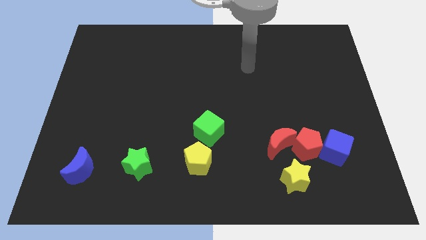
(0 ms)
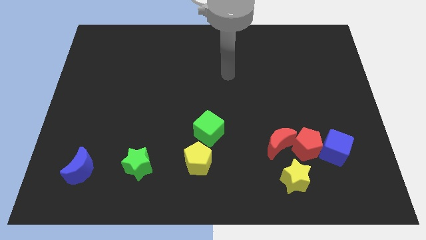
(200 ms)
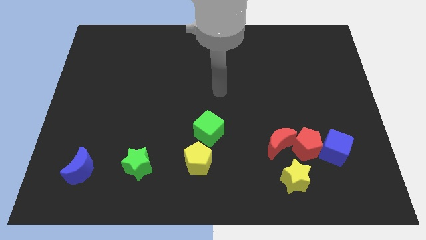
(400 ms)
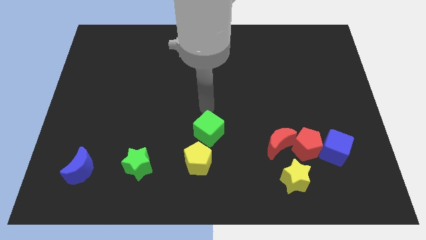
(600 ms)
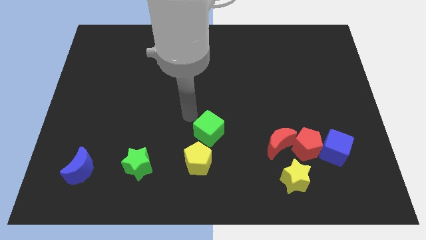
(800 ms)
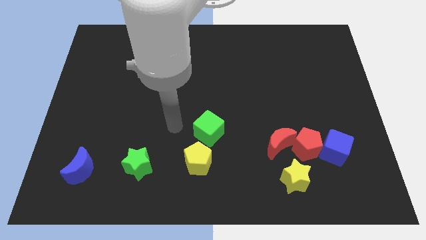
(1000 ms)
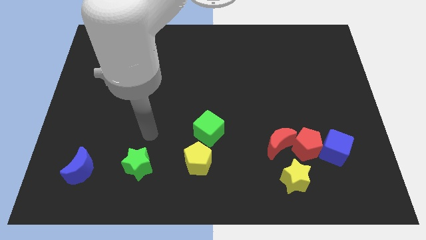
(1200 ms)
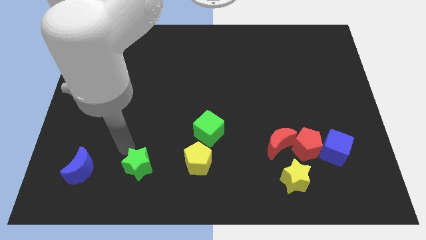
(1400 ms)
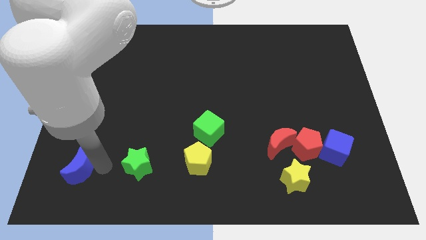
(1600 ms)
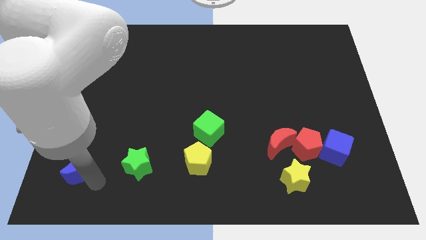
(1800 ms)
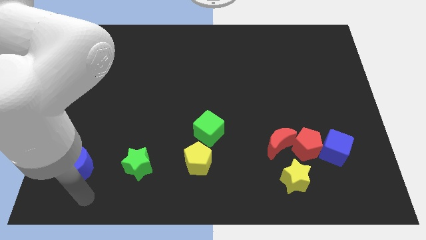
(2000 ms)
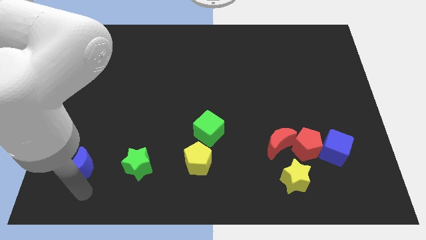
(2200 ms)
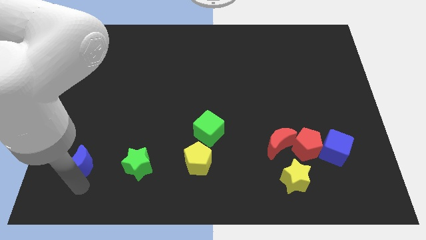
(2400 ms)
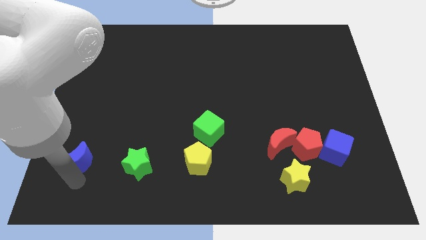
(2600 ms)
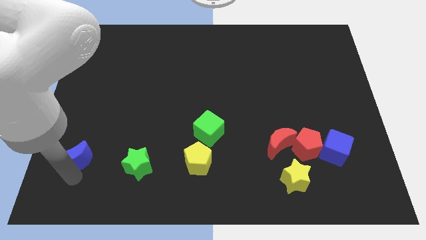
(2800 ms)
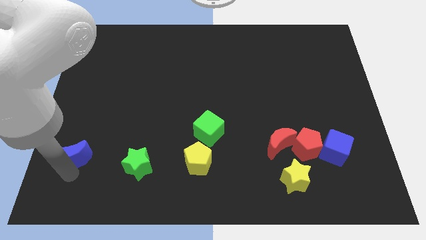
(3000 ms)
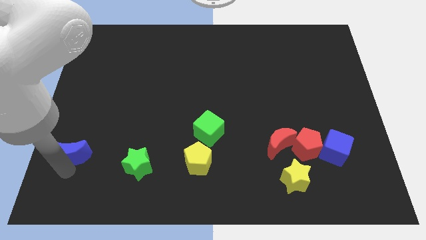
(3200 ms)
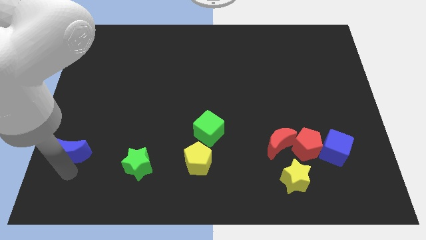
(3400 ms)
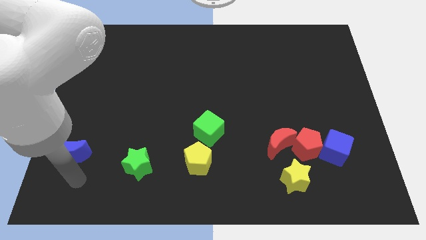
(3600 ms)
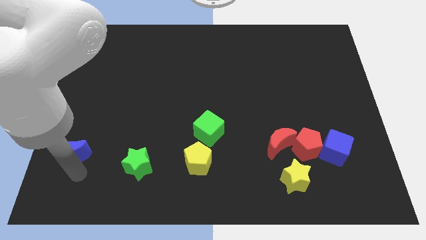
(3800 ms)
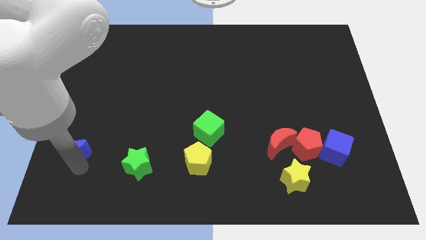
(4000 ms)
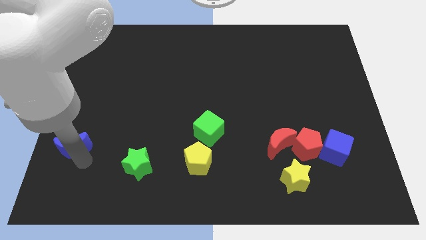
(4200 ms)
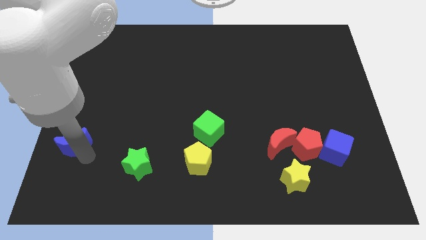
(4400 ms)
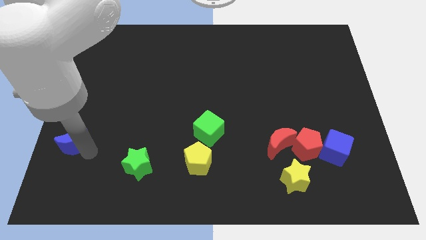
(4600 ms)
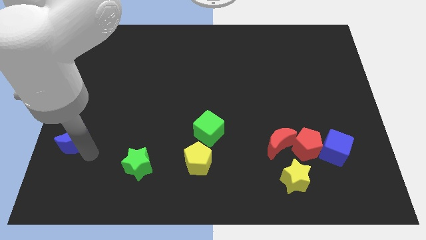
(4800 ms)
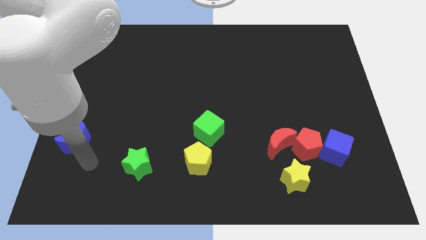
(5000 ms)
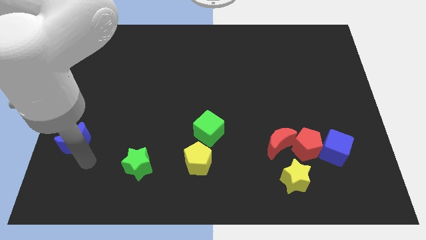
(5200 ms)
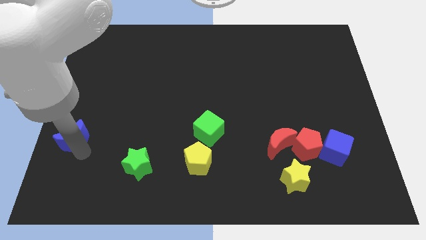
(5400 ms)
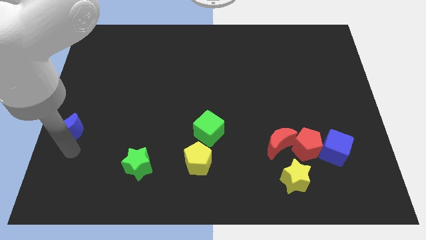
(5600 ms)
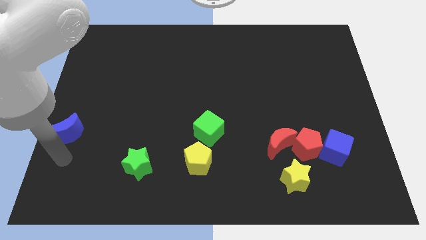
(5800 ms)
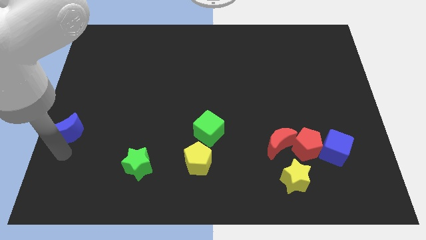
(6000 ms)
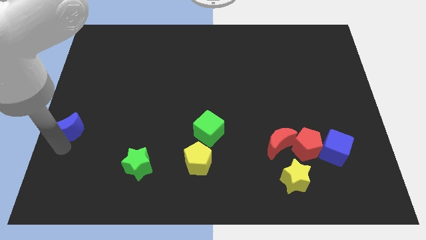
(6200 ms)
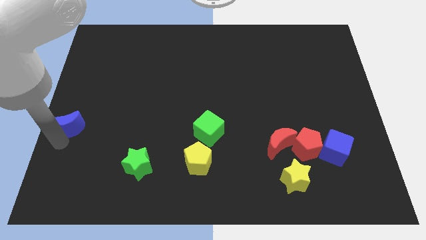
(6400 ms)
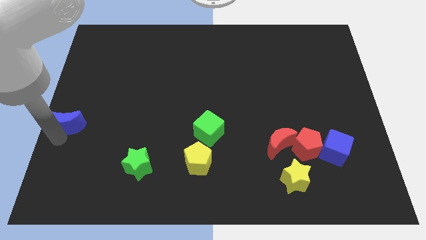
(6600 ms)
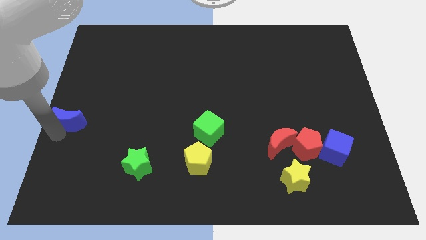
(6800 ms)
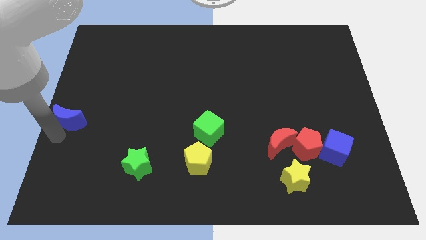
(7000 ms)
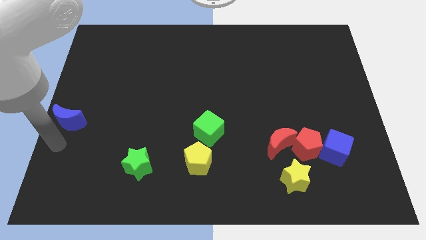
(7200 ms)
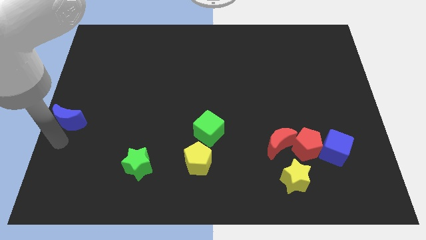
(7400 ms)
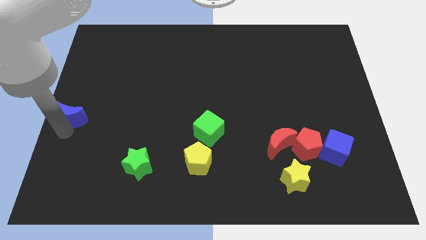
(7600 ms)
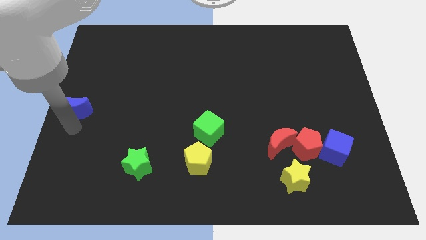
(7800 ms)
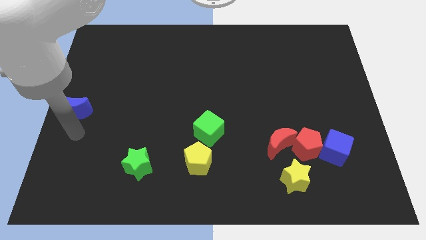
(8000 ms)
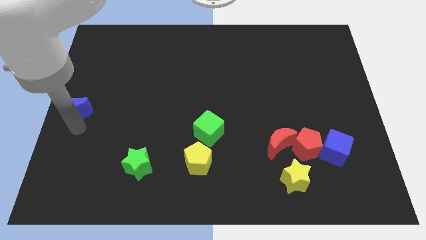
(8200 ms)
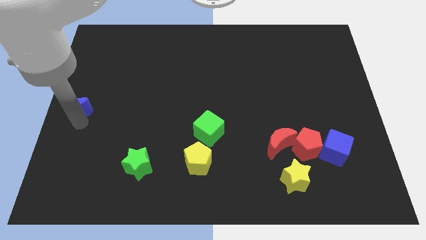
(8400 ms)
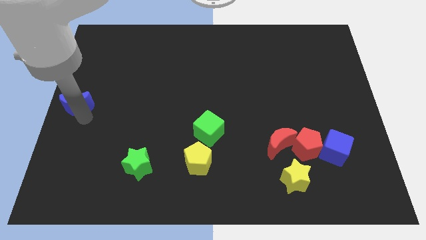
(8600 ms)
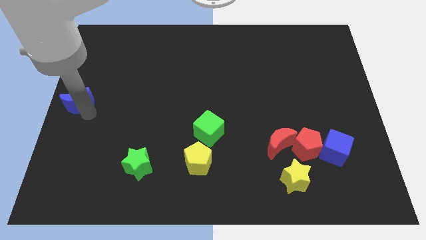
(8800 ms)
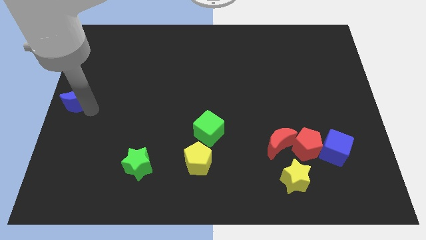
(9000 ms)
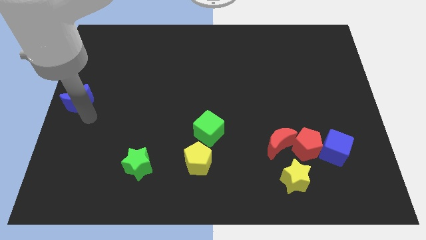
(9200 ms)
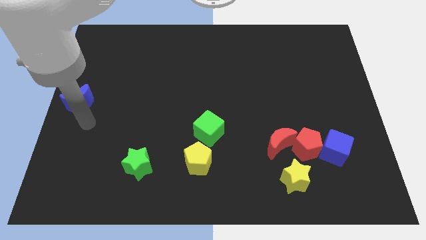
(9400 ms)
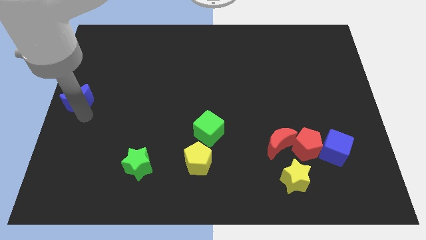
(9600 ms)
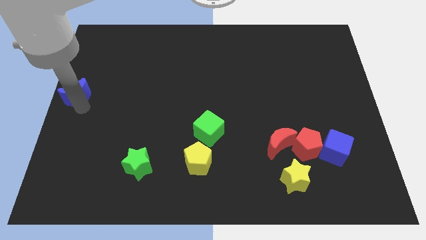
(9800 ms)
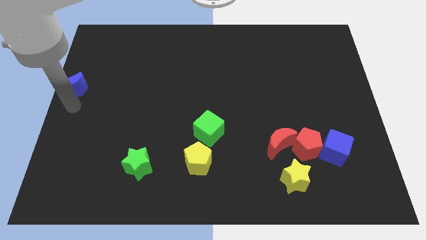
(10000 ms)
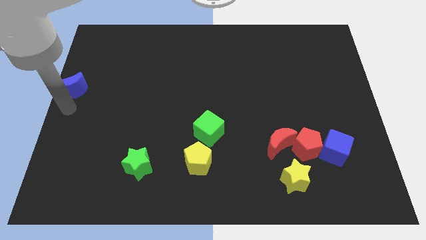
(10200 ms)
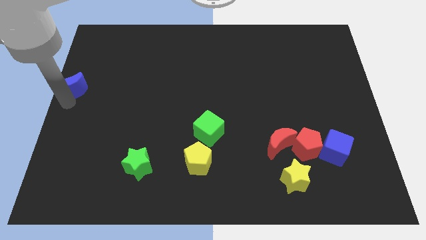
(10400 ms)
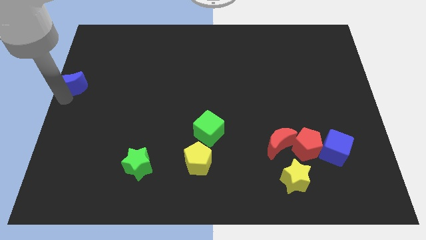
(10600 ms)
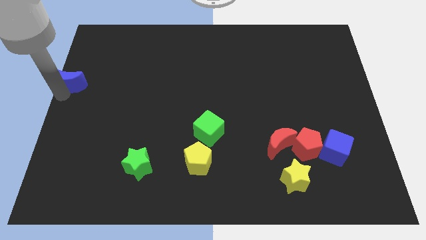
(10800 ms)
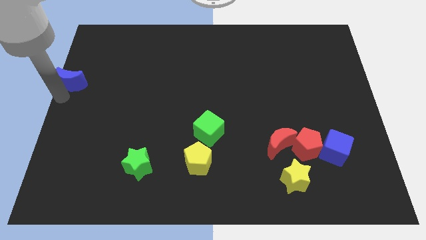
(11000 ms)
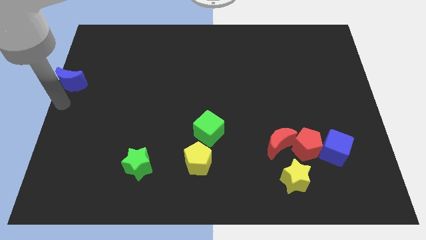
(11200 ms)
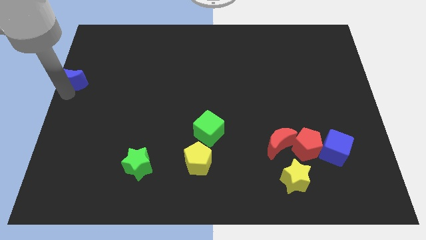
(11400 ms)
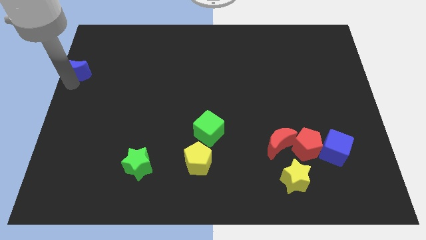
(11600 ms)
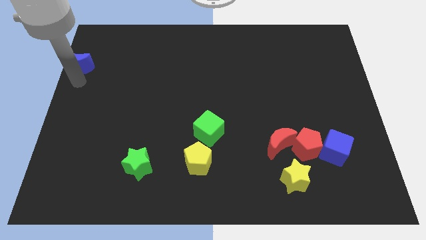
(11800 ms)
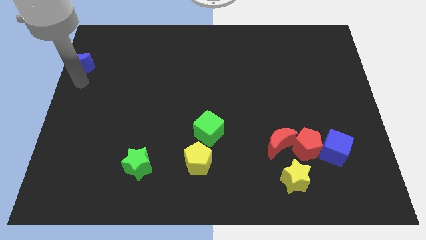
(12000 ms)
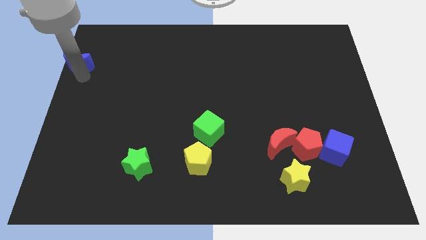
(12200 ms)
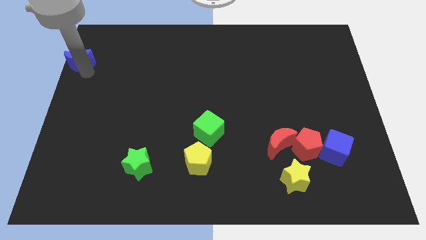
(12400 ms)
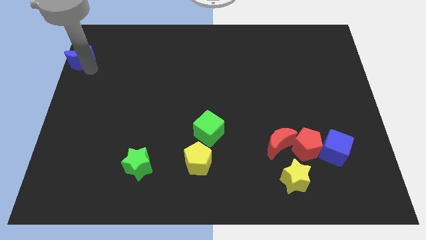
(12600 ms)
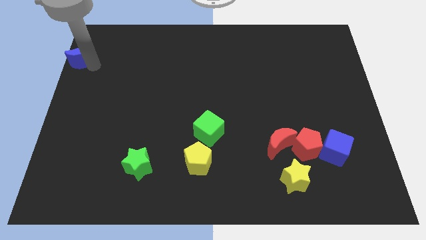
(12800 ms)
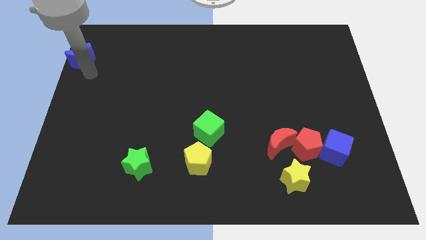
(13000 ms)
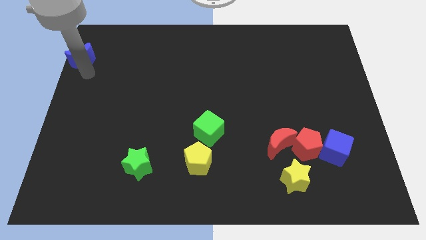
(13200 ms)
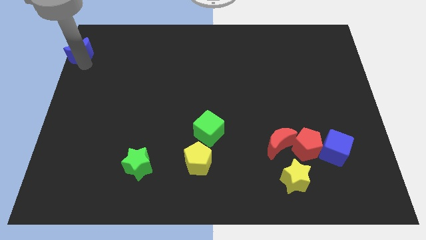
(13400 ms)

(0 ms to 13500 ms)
push the blue moon to the top left of the board

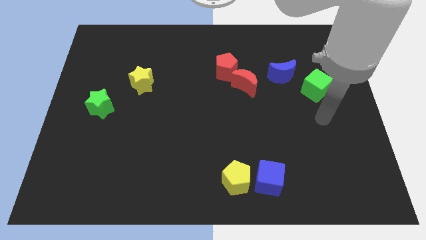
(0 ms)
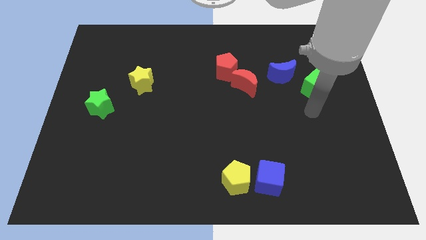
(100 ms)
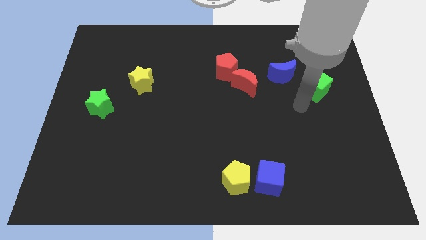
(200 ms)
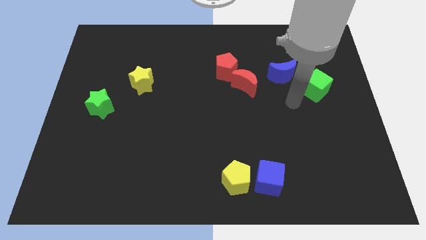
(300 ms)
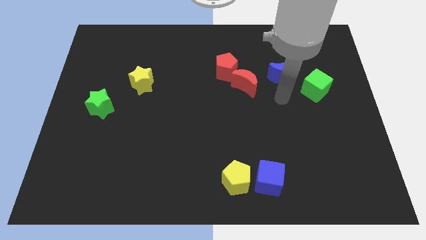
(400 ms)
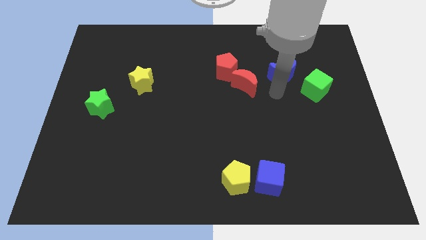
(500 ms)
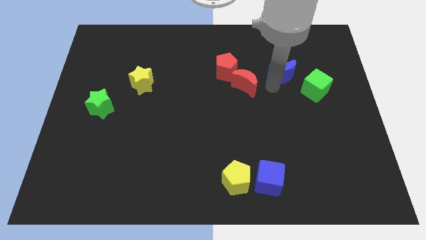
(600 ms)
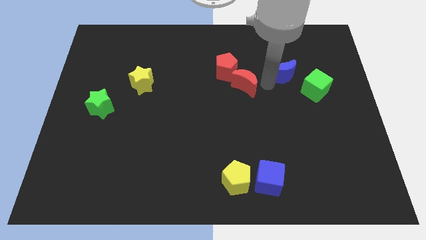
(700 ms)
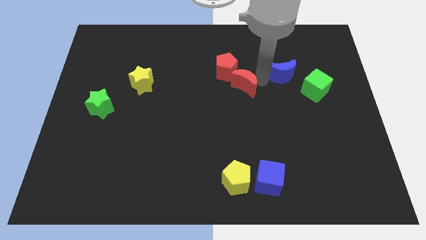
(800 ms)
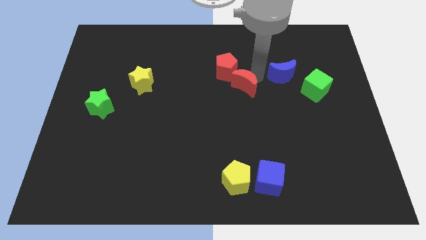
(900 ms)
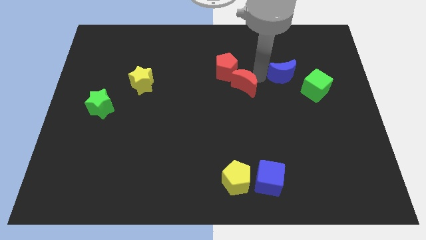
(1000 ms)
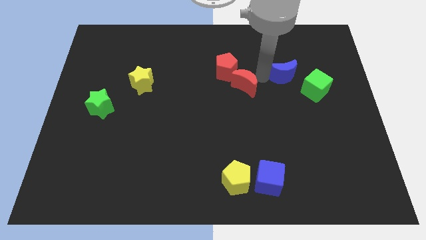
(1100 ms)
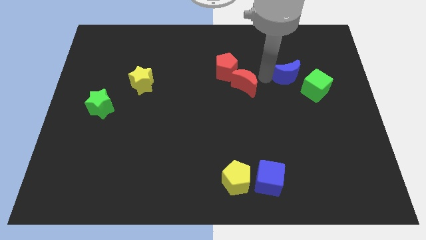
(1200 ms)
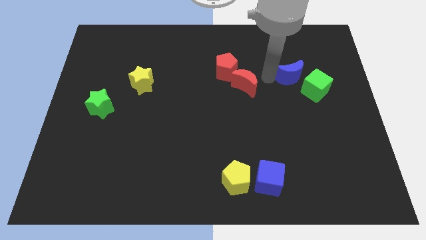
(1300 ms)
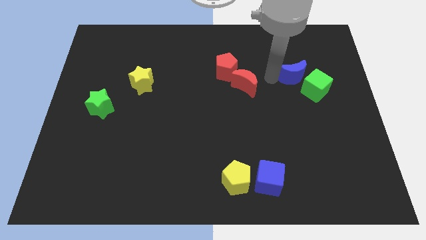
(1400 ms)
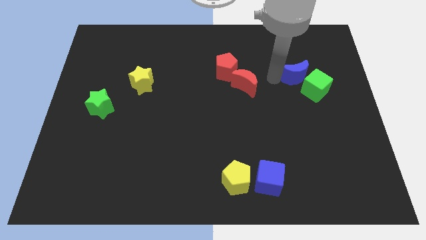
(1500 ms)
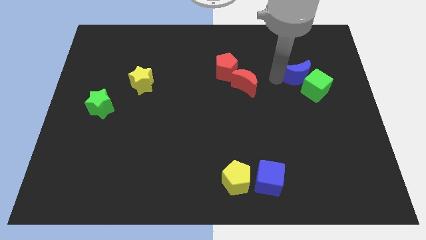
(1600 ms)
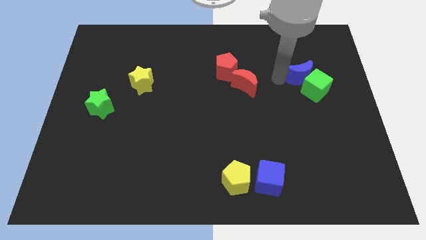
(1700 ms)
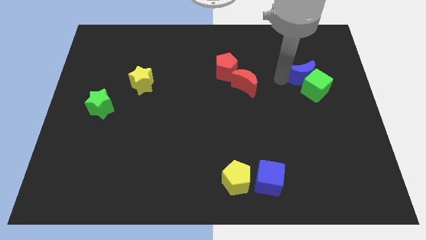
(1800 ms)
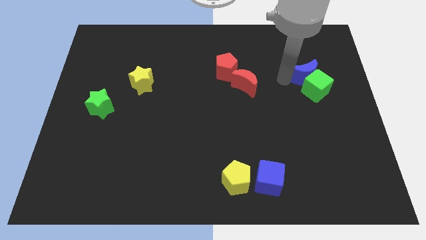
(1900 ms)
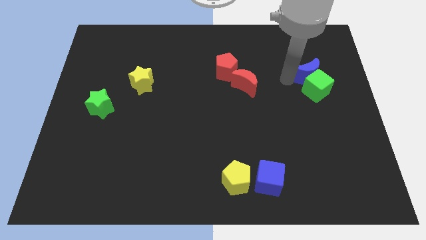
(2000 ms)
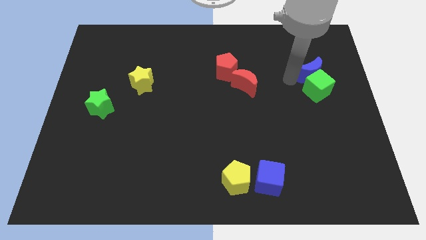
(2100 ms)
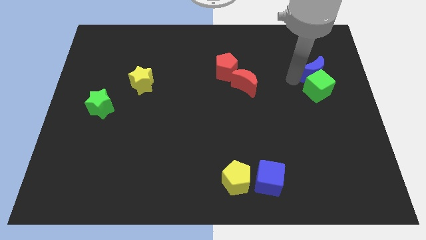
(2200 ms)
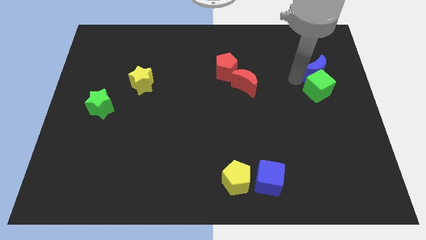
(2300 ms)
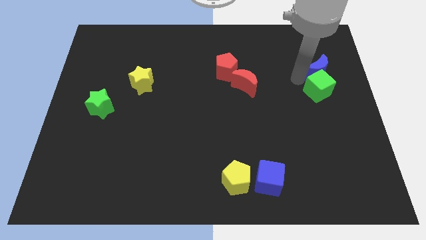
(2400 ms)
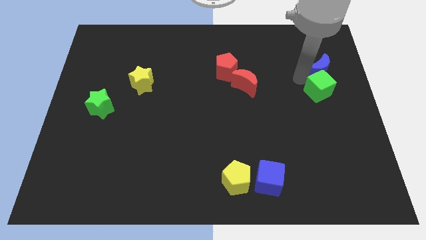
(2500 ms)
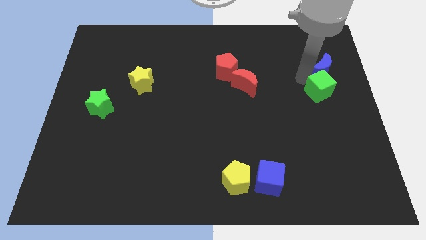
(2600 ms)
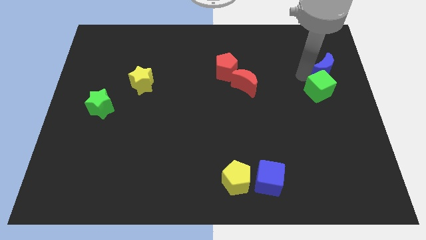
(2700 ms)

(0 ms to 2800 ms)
slide the blue moon to the right side
